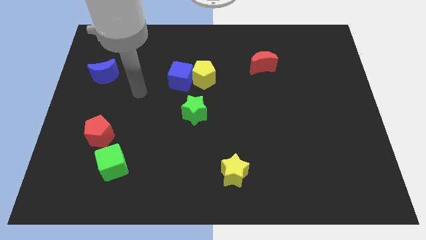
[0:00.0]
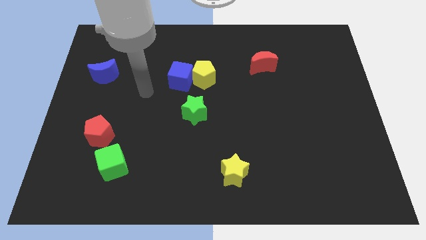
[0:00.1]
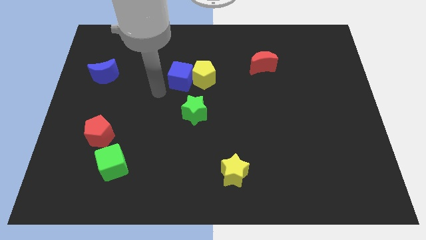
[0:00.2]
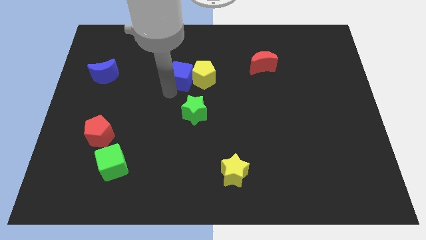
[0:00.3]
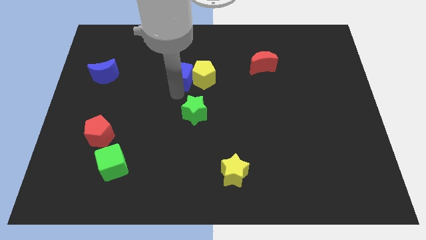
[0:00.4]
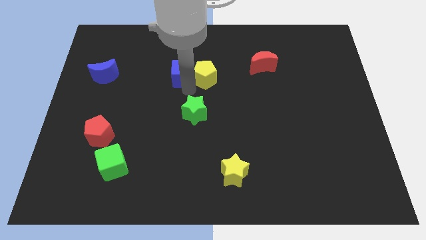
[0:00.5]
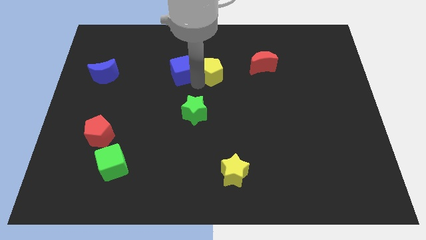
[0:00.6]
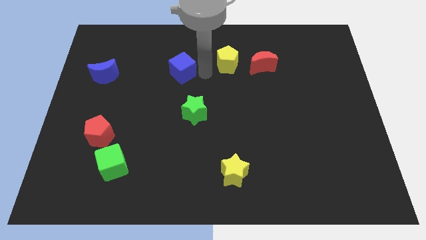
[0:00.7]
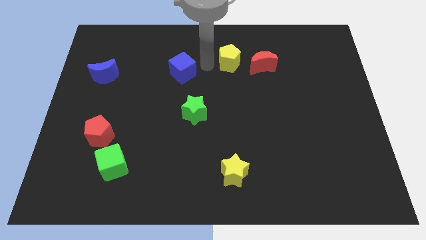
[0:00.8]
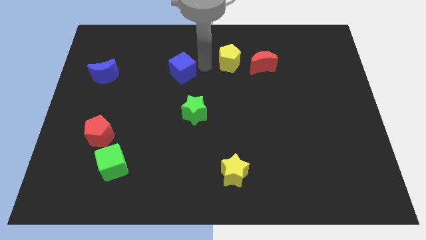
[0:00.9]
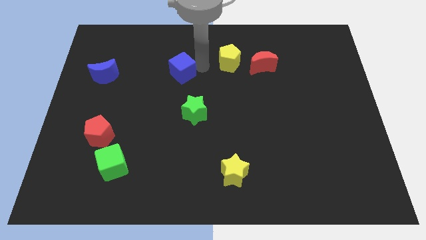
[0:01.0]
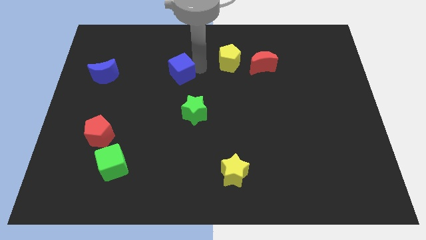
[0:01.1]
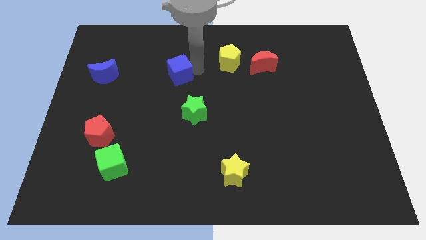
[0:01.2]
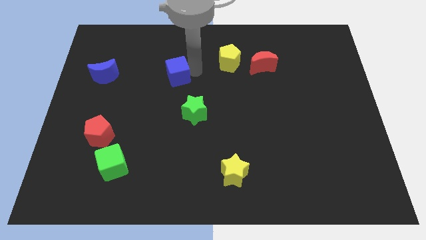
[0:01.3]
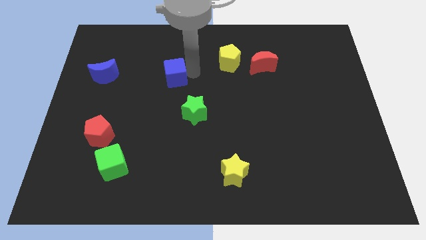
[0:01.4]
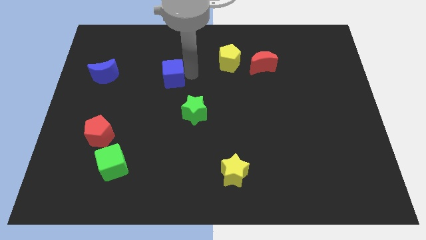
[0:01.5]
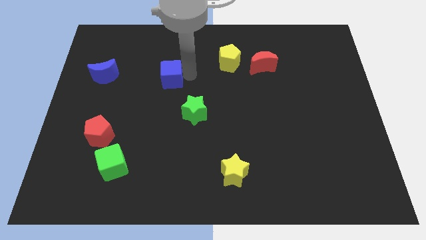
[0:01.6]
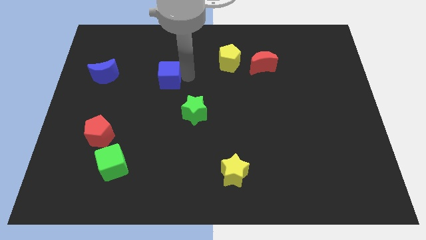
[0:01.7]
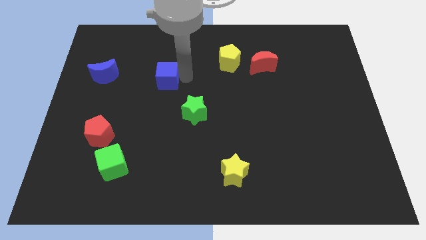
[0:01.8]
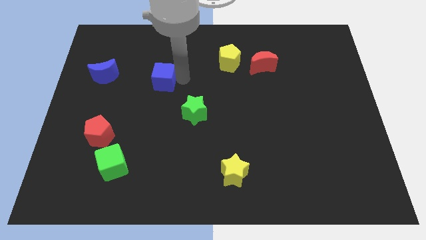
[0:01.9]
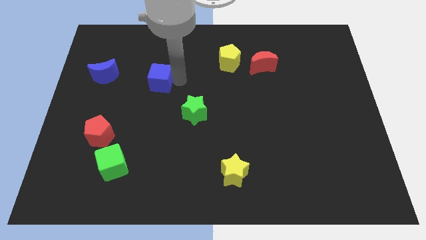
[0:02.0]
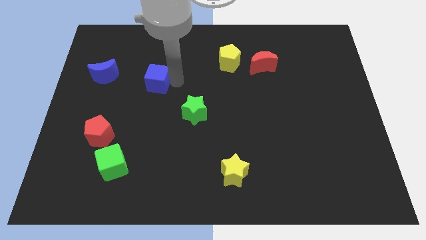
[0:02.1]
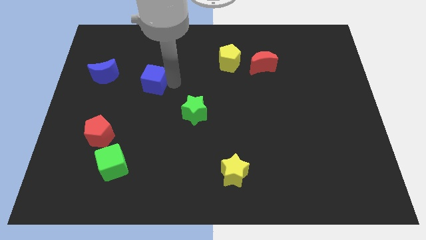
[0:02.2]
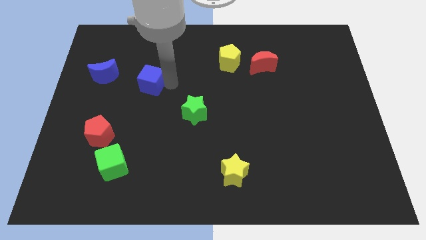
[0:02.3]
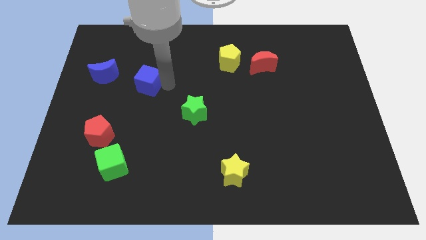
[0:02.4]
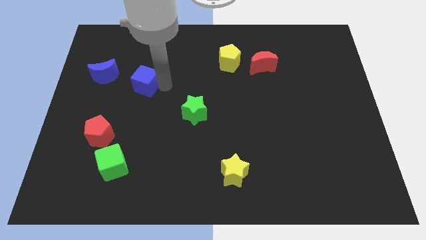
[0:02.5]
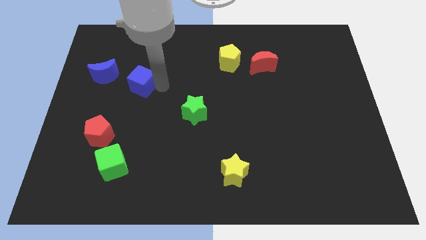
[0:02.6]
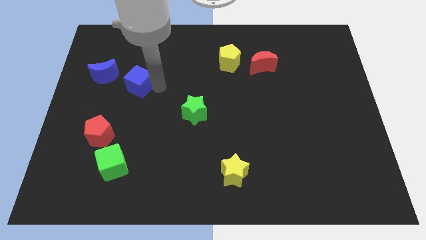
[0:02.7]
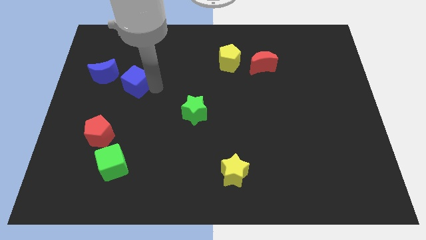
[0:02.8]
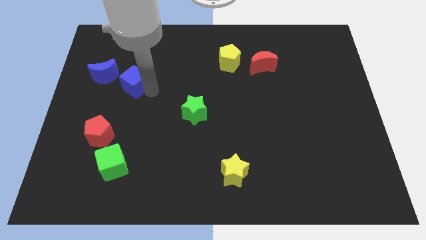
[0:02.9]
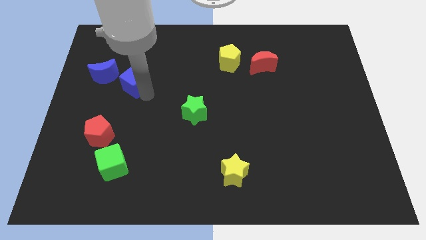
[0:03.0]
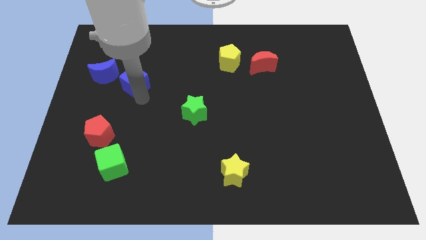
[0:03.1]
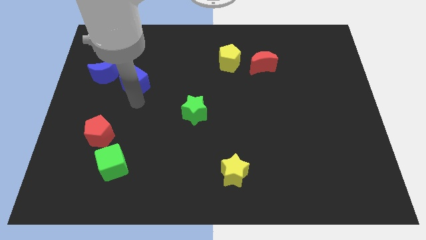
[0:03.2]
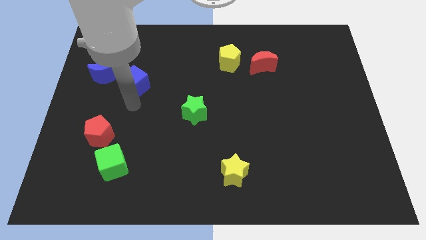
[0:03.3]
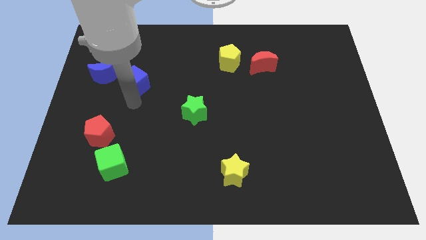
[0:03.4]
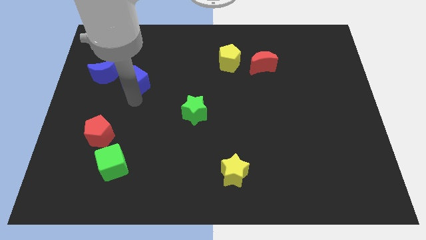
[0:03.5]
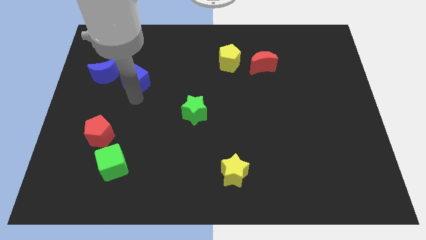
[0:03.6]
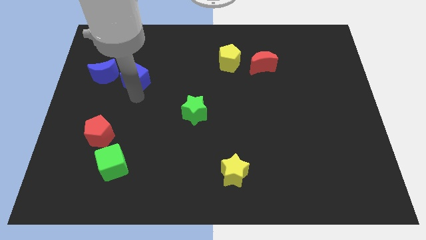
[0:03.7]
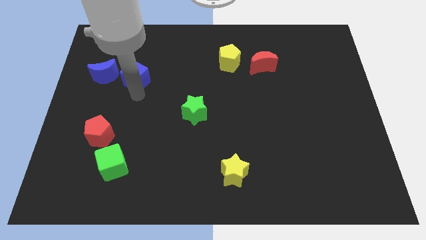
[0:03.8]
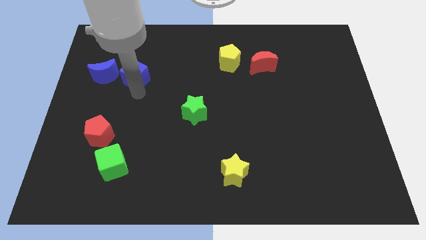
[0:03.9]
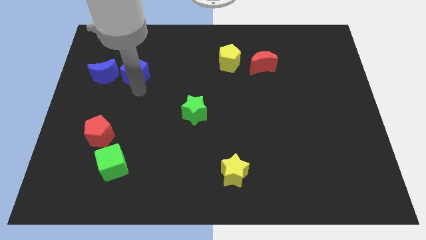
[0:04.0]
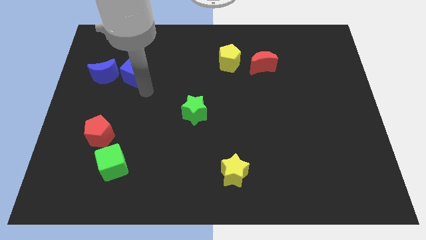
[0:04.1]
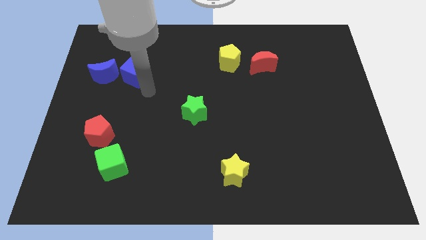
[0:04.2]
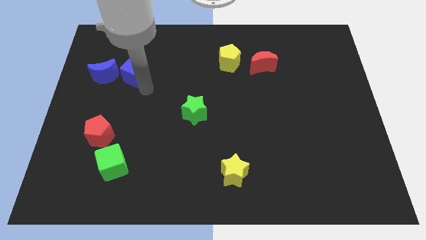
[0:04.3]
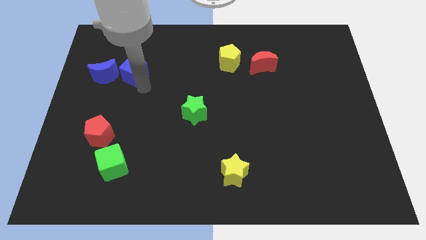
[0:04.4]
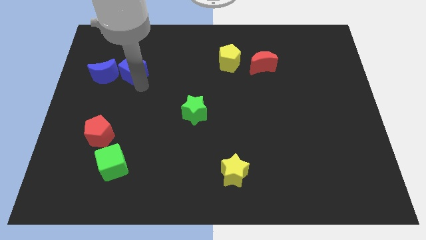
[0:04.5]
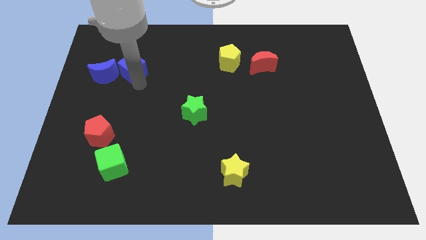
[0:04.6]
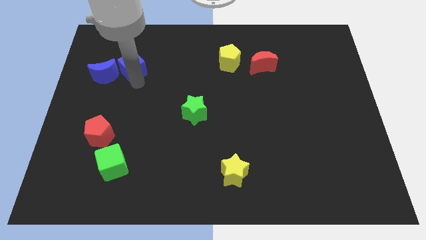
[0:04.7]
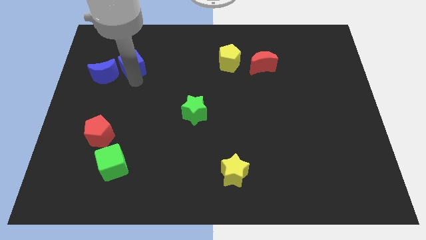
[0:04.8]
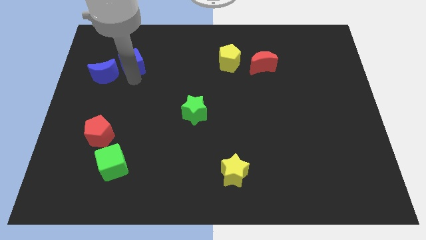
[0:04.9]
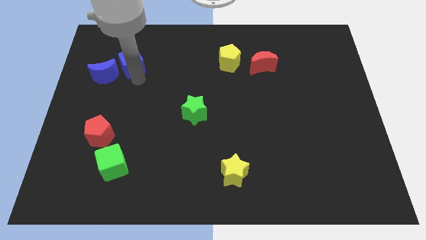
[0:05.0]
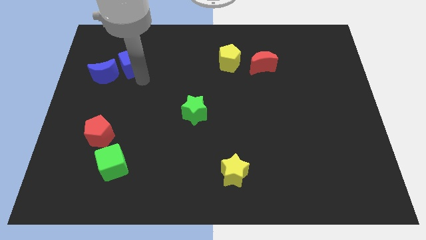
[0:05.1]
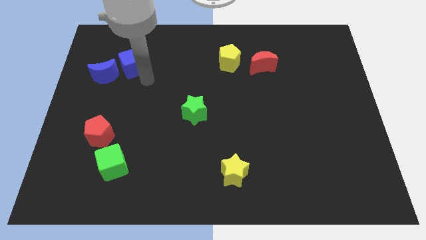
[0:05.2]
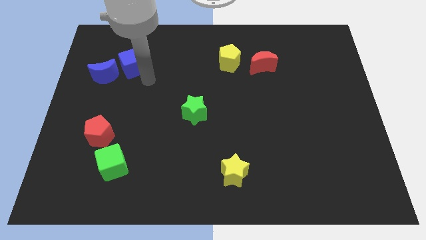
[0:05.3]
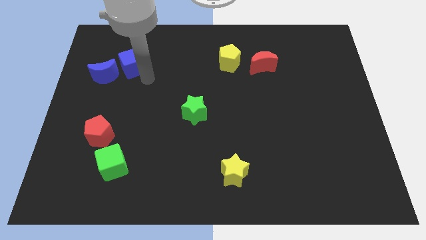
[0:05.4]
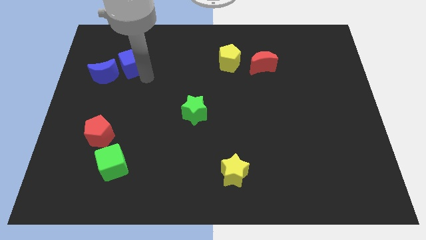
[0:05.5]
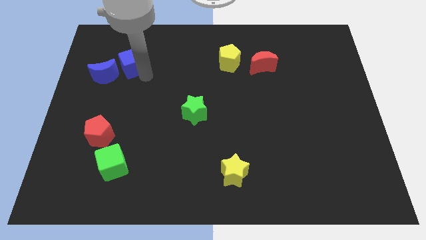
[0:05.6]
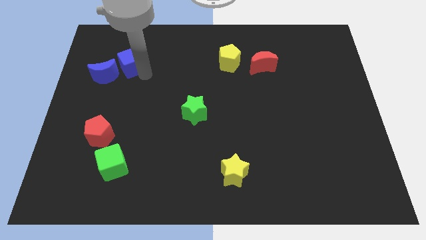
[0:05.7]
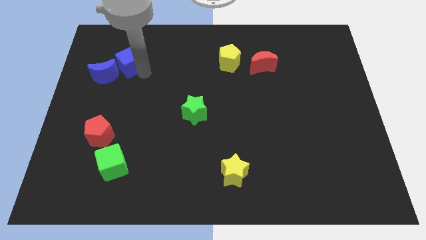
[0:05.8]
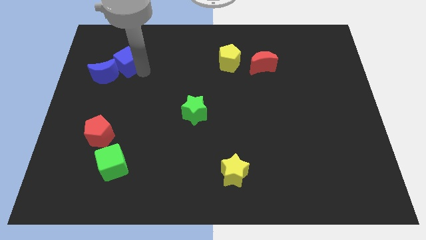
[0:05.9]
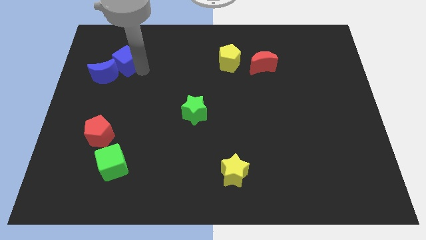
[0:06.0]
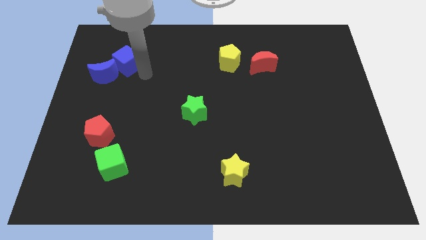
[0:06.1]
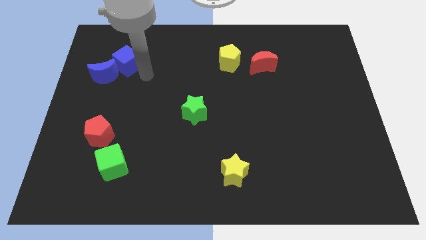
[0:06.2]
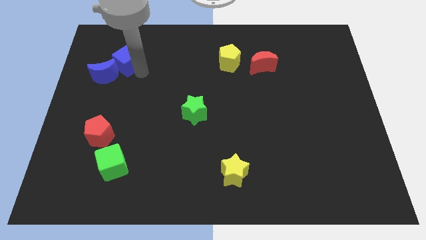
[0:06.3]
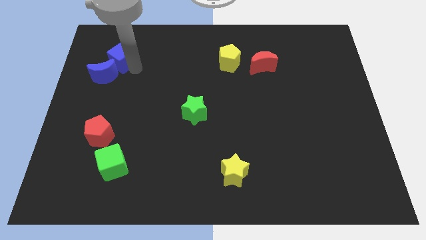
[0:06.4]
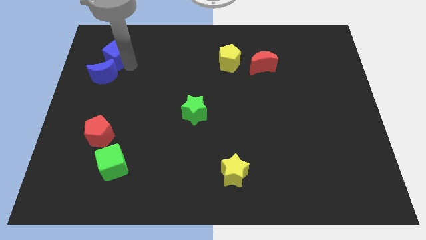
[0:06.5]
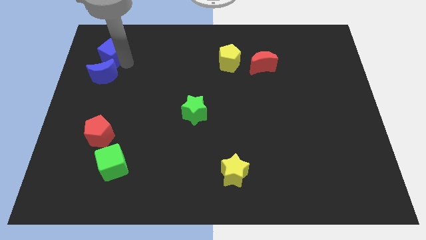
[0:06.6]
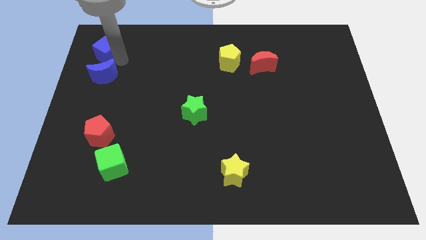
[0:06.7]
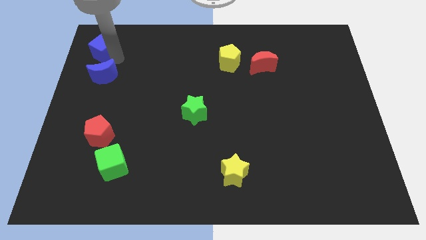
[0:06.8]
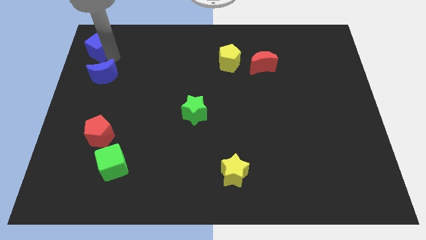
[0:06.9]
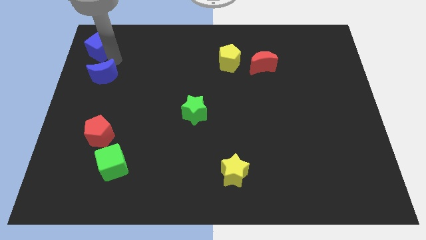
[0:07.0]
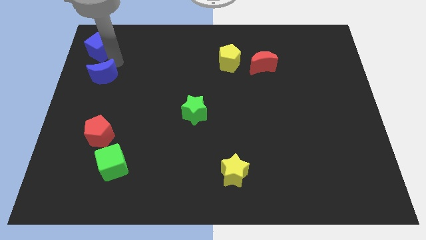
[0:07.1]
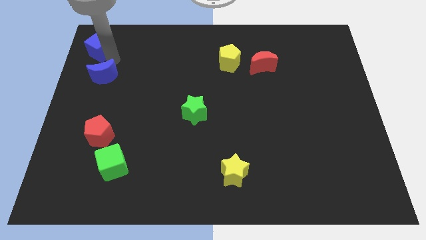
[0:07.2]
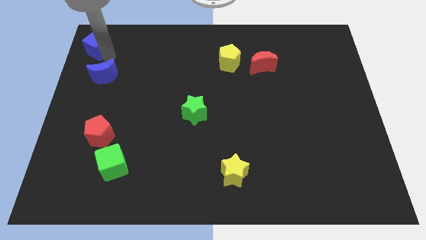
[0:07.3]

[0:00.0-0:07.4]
put the blue cube to the top left corner
